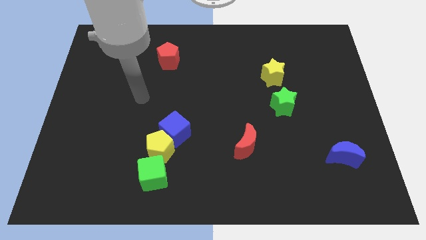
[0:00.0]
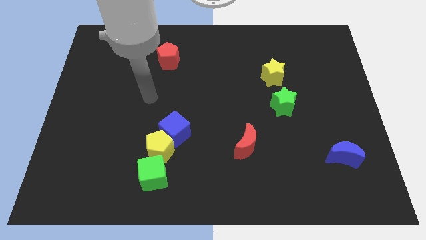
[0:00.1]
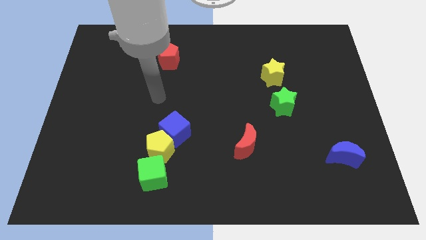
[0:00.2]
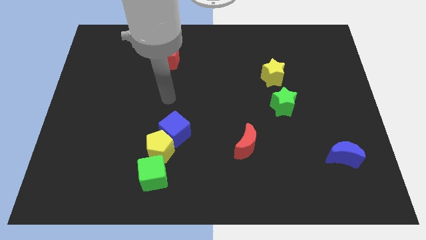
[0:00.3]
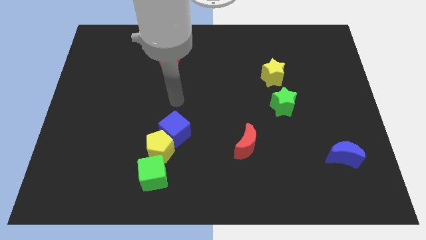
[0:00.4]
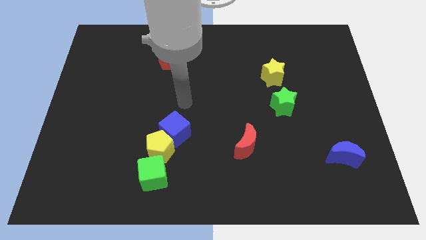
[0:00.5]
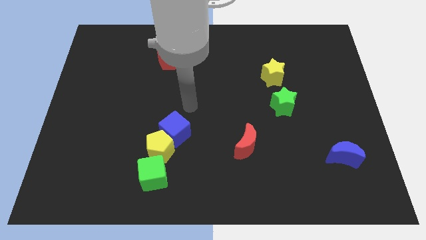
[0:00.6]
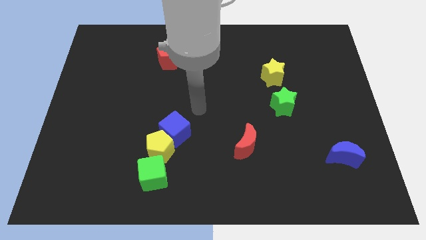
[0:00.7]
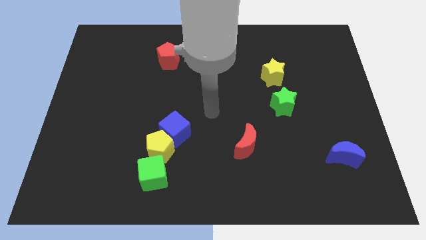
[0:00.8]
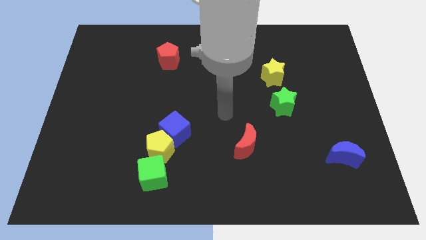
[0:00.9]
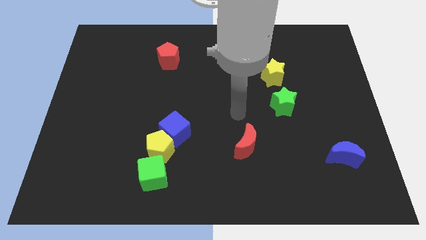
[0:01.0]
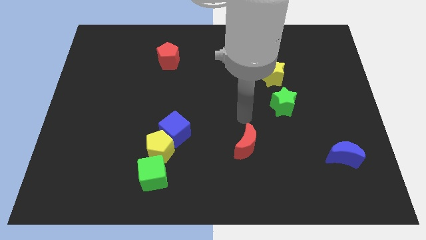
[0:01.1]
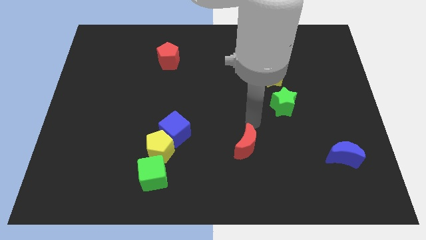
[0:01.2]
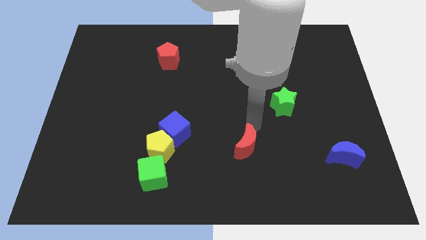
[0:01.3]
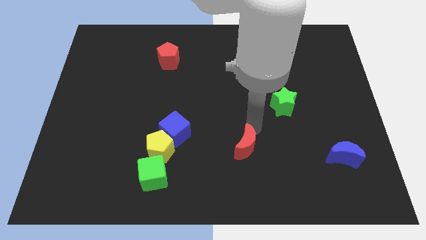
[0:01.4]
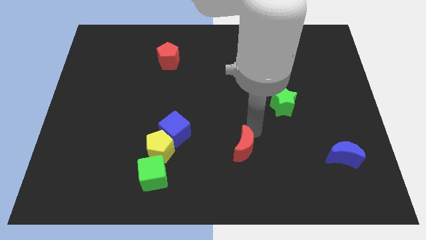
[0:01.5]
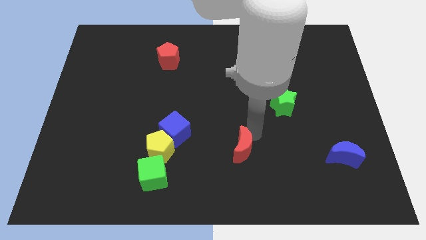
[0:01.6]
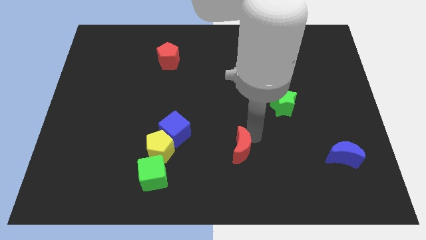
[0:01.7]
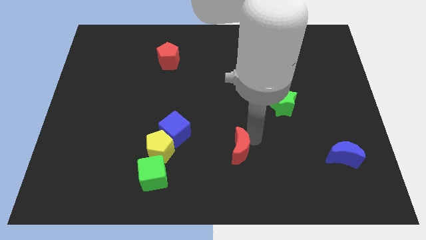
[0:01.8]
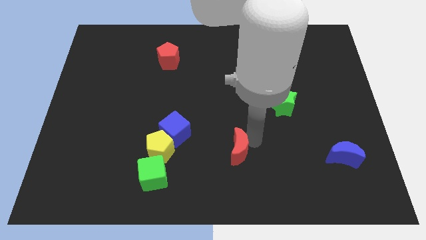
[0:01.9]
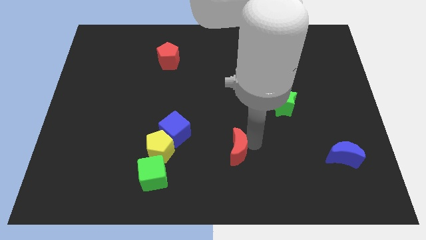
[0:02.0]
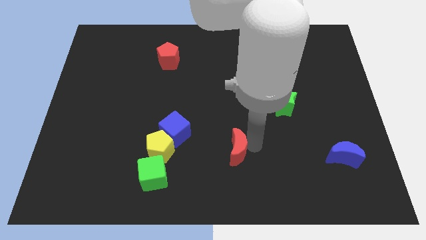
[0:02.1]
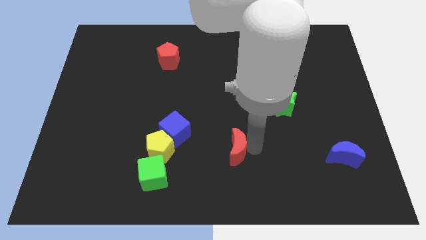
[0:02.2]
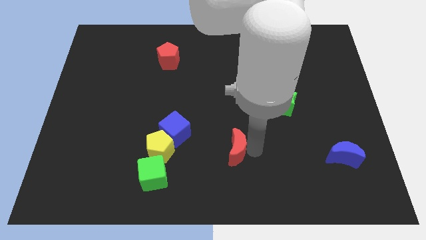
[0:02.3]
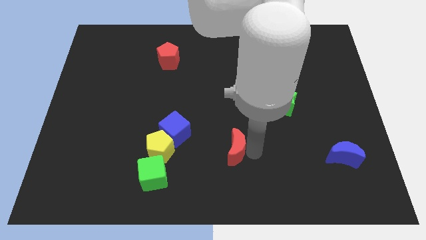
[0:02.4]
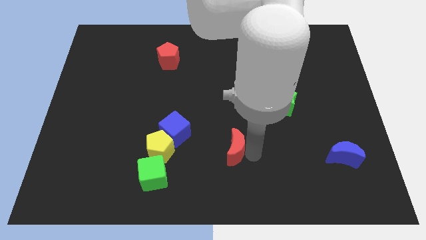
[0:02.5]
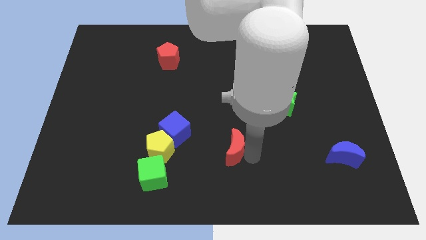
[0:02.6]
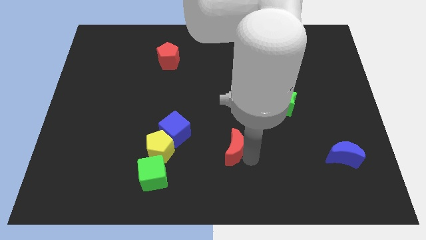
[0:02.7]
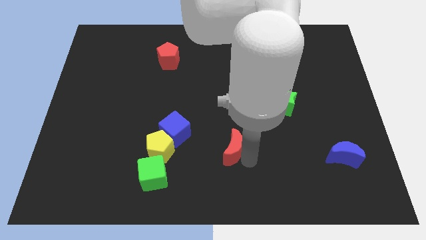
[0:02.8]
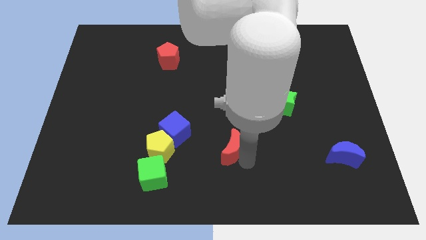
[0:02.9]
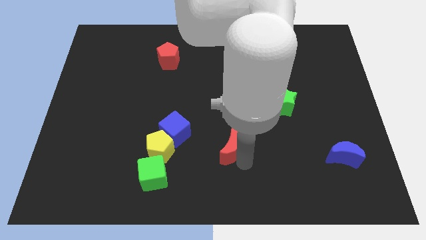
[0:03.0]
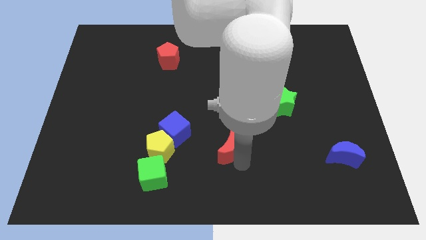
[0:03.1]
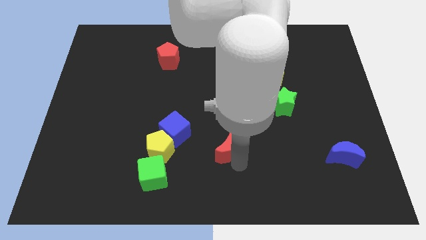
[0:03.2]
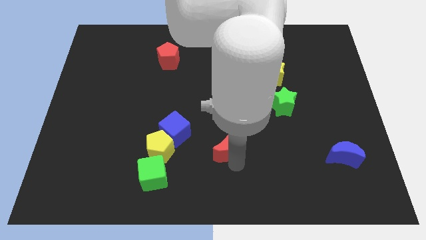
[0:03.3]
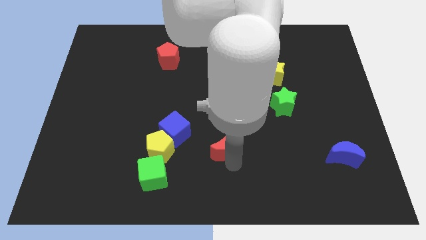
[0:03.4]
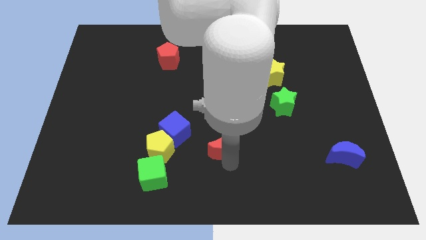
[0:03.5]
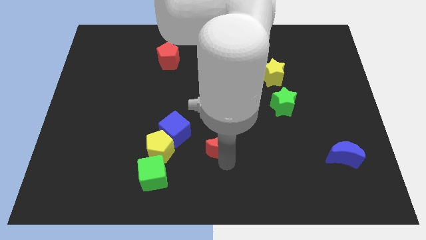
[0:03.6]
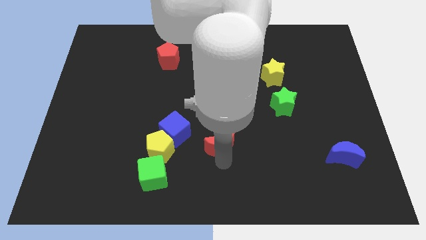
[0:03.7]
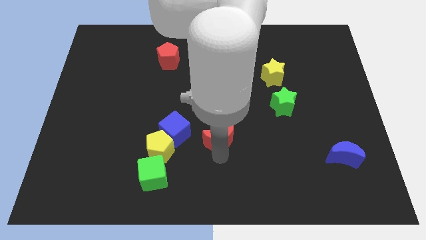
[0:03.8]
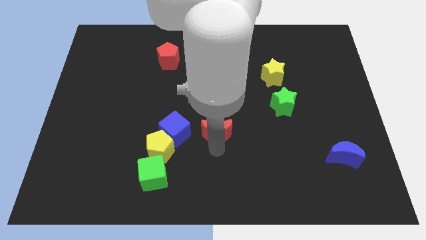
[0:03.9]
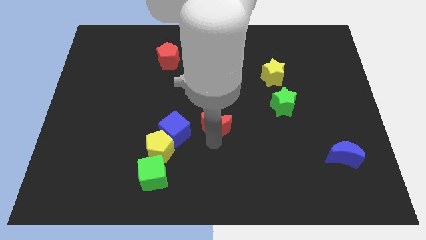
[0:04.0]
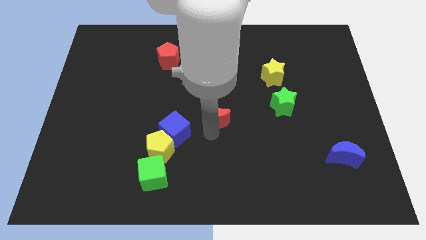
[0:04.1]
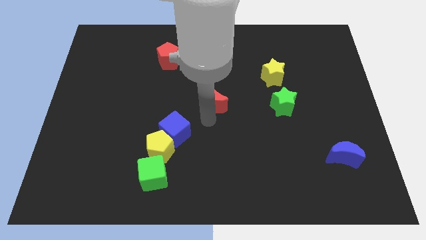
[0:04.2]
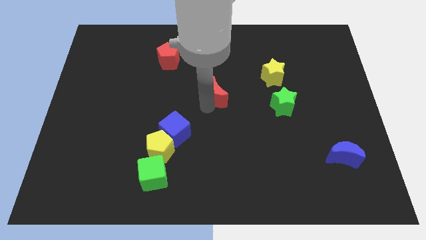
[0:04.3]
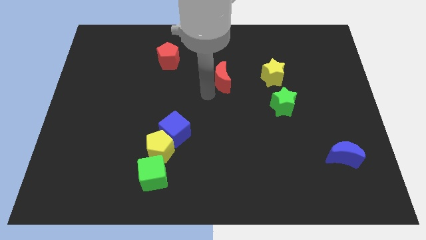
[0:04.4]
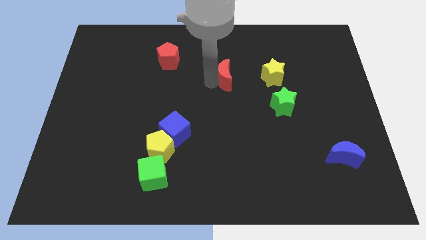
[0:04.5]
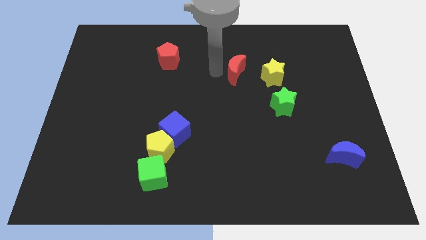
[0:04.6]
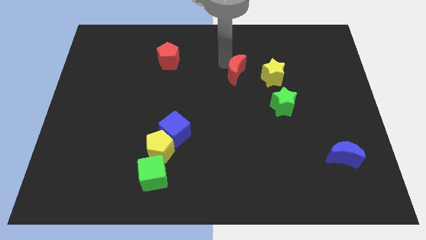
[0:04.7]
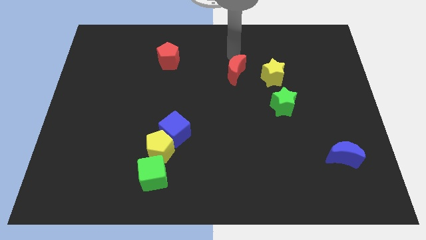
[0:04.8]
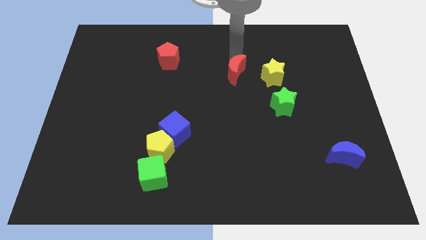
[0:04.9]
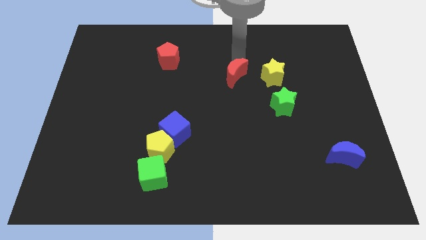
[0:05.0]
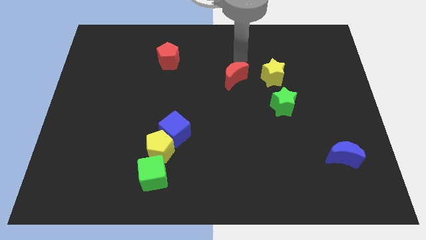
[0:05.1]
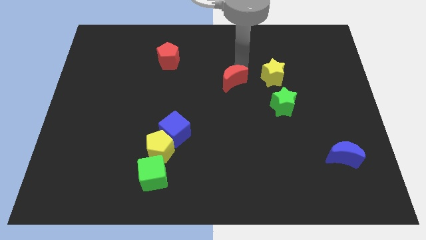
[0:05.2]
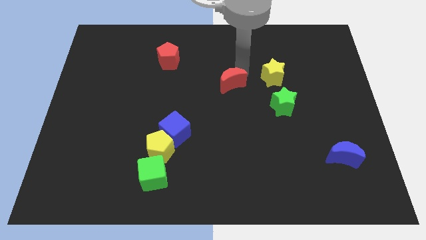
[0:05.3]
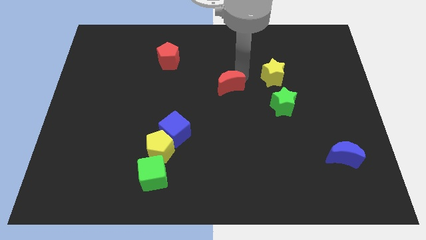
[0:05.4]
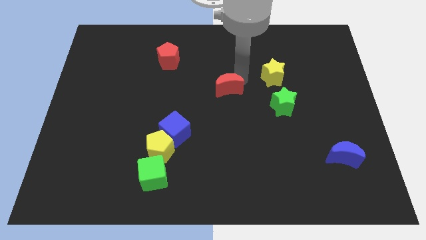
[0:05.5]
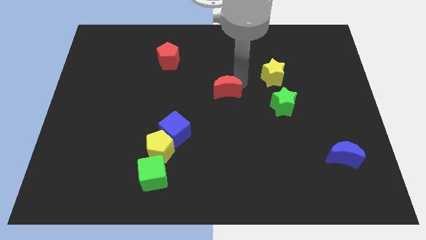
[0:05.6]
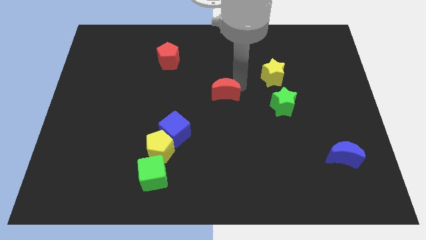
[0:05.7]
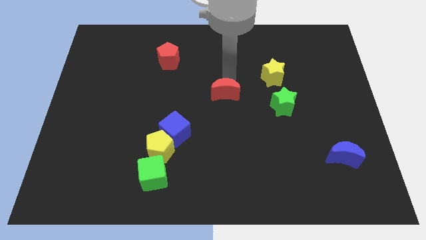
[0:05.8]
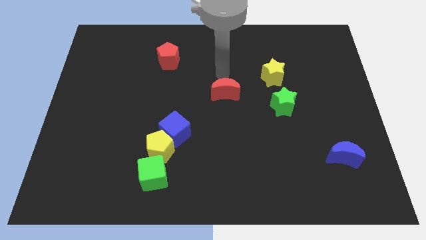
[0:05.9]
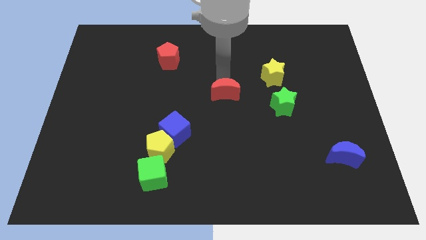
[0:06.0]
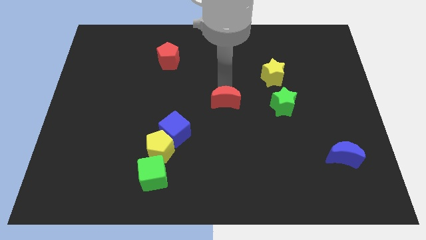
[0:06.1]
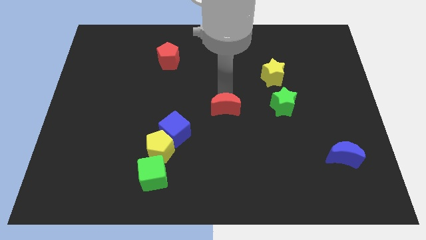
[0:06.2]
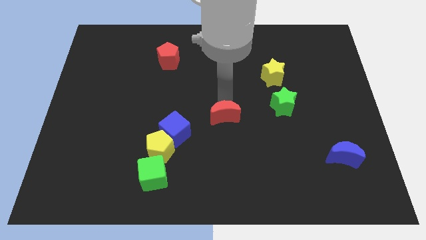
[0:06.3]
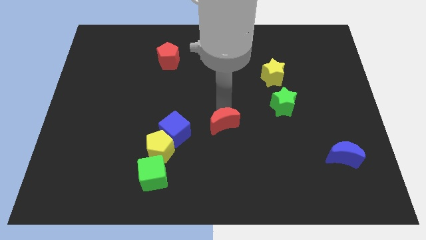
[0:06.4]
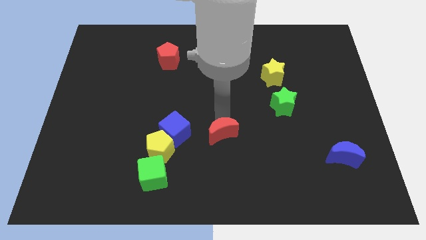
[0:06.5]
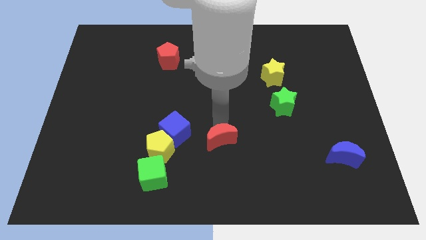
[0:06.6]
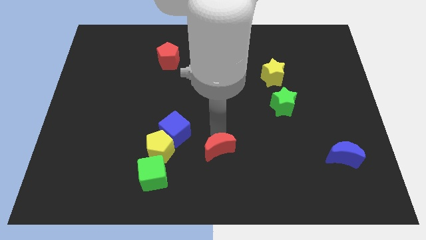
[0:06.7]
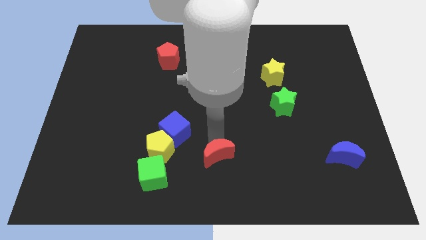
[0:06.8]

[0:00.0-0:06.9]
push the red moon to the bottom side
